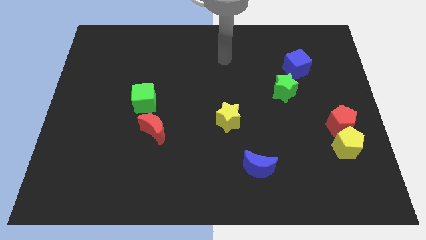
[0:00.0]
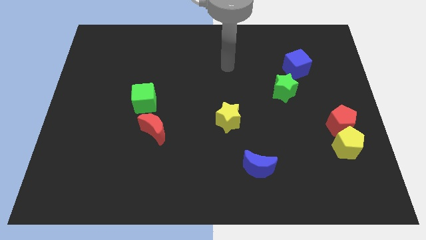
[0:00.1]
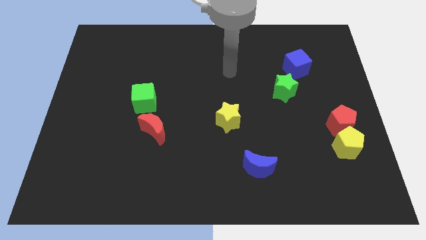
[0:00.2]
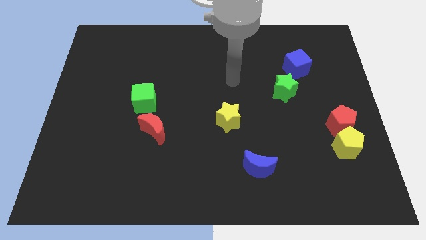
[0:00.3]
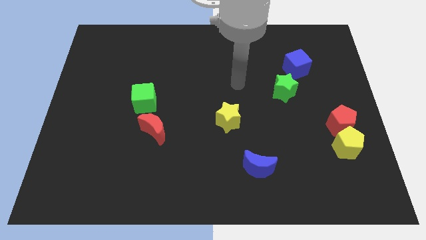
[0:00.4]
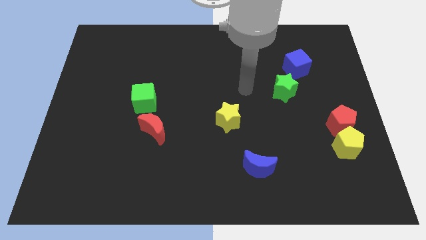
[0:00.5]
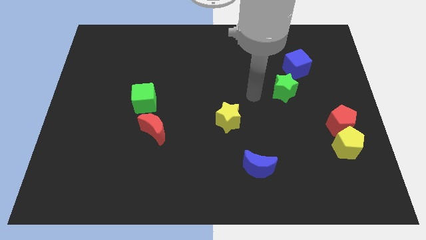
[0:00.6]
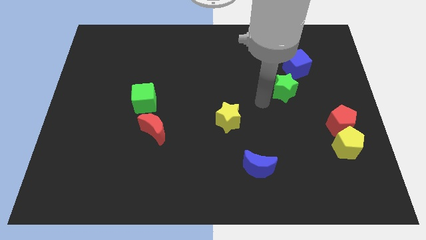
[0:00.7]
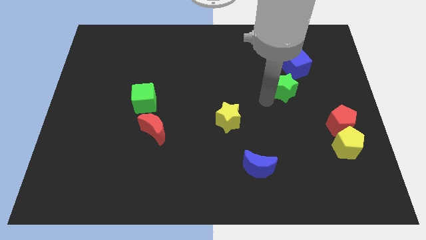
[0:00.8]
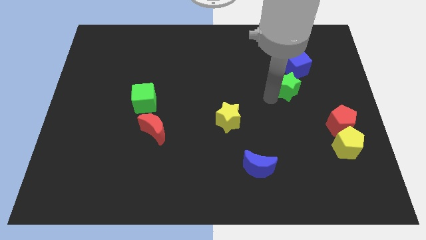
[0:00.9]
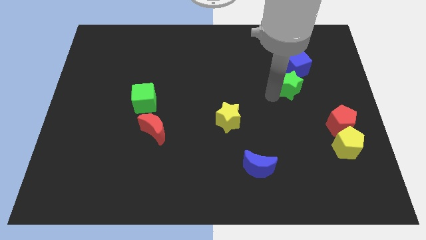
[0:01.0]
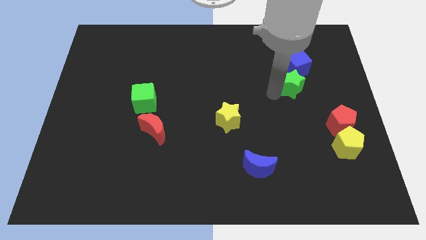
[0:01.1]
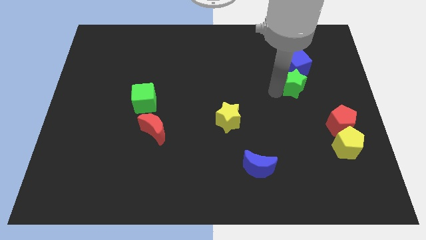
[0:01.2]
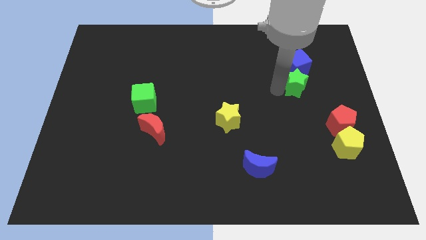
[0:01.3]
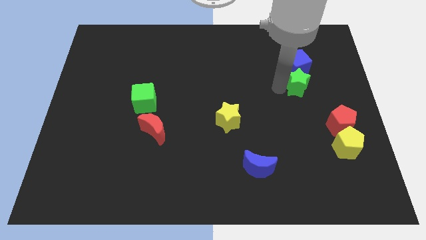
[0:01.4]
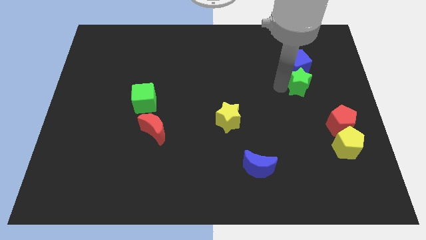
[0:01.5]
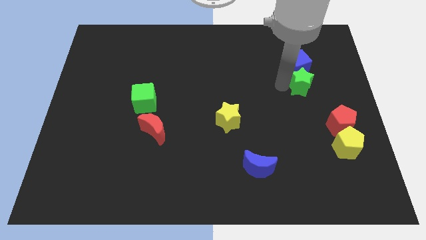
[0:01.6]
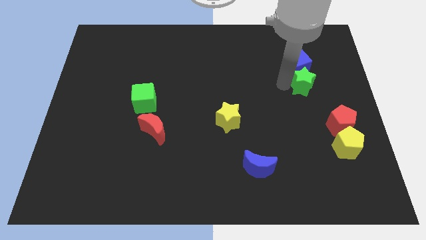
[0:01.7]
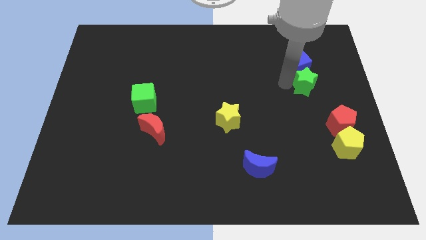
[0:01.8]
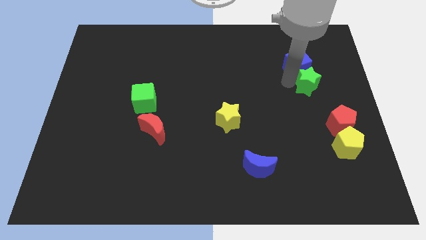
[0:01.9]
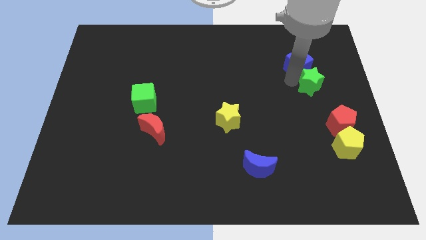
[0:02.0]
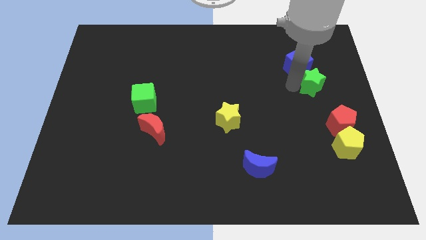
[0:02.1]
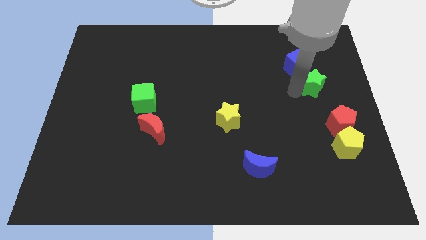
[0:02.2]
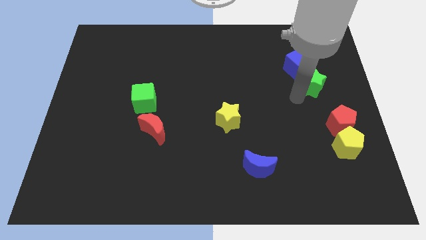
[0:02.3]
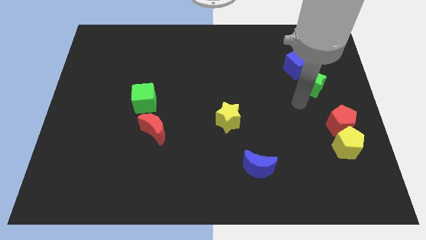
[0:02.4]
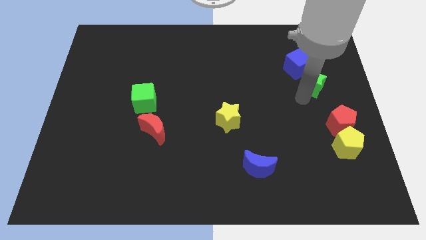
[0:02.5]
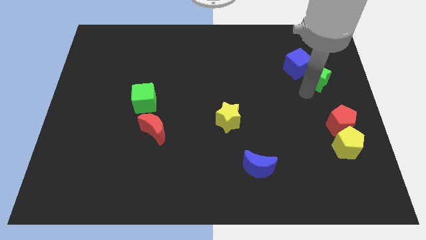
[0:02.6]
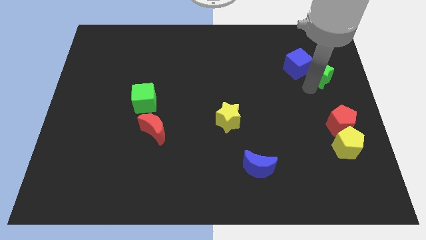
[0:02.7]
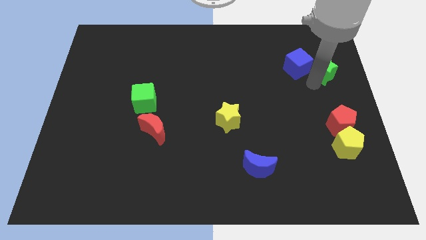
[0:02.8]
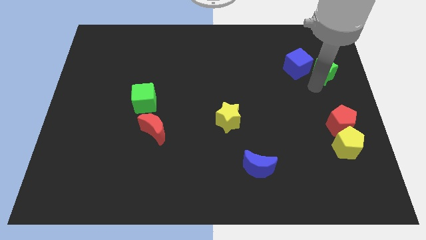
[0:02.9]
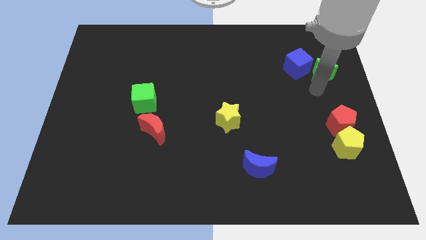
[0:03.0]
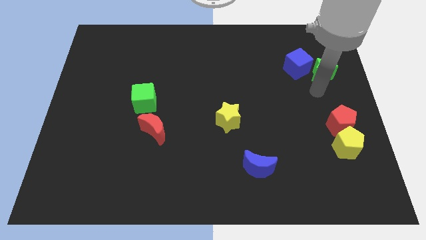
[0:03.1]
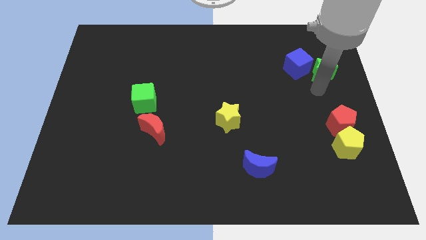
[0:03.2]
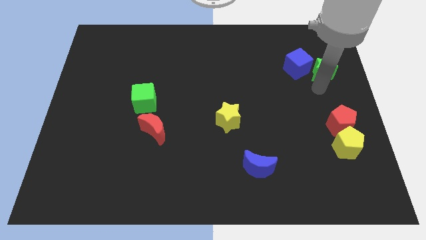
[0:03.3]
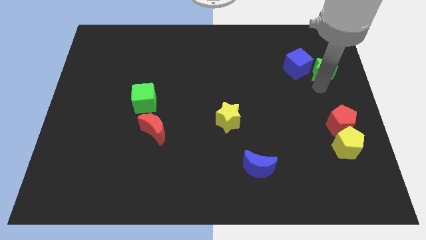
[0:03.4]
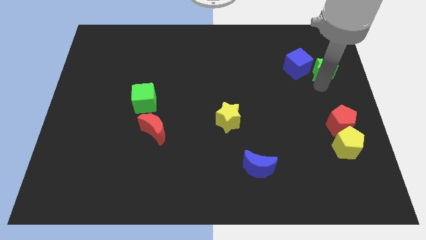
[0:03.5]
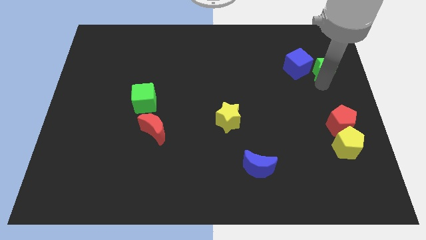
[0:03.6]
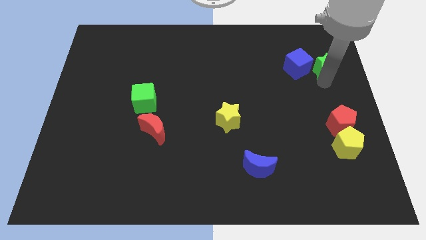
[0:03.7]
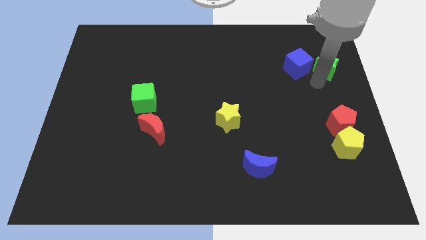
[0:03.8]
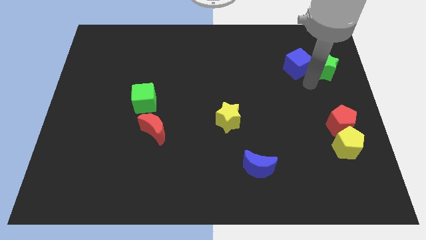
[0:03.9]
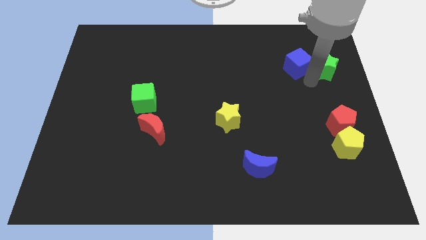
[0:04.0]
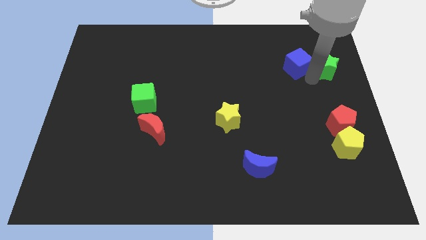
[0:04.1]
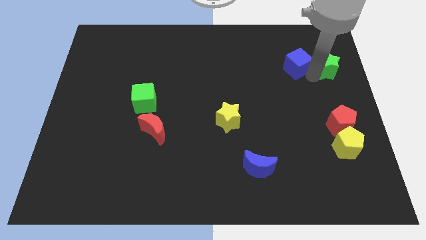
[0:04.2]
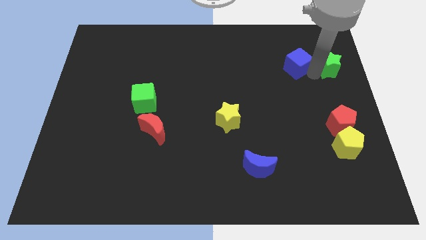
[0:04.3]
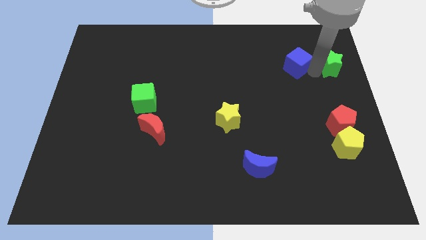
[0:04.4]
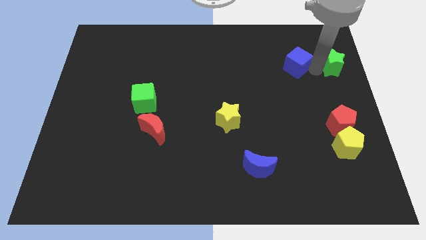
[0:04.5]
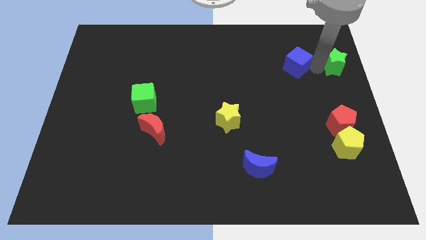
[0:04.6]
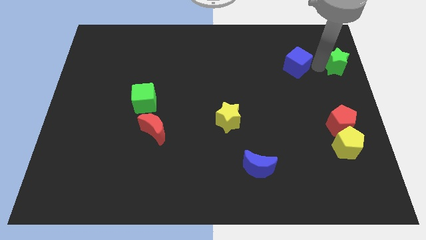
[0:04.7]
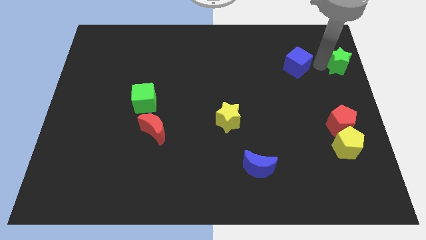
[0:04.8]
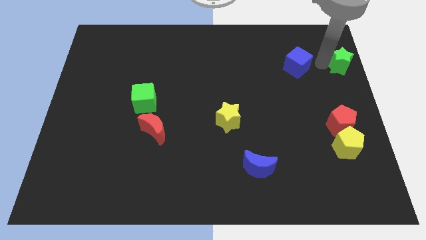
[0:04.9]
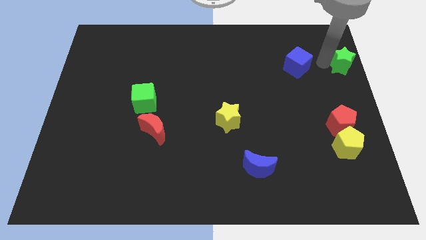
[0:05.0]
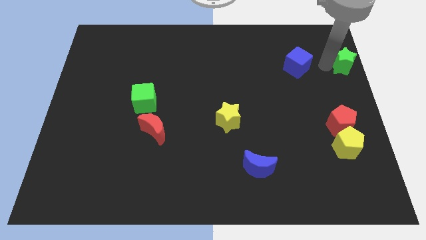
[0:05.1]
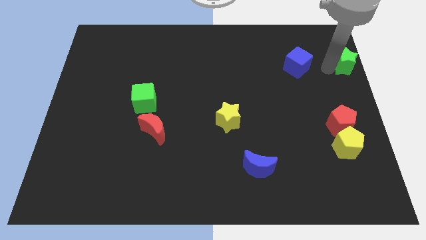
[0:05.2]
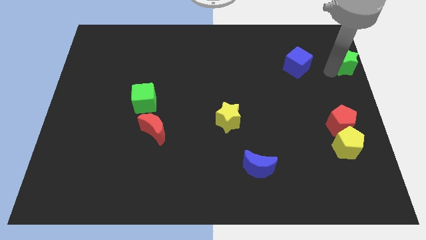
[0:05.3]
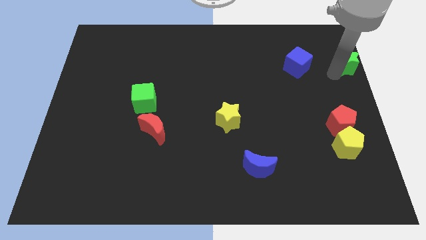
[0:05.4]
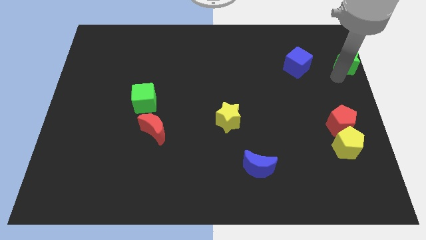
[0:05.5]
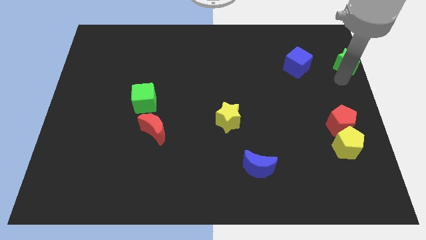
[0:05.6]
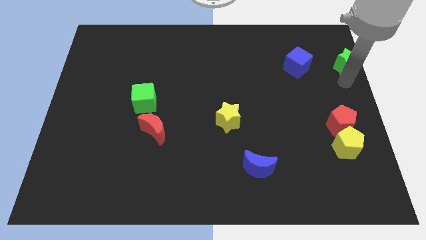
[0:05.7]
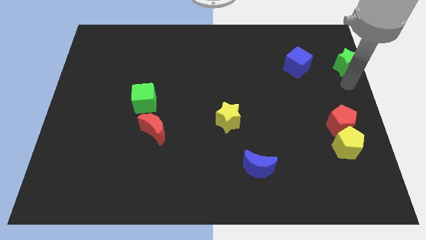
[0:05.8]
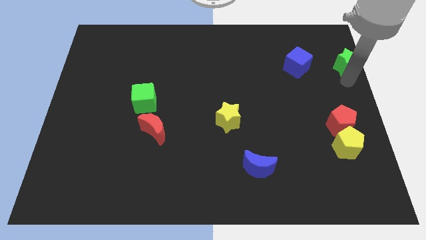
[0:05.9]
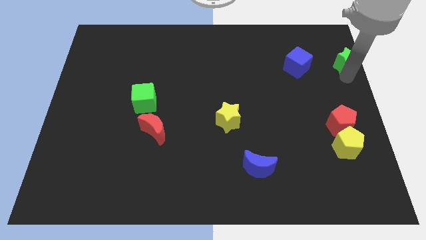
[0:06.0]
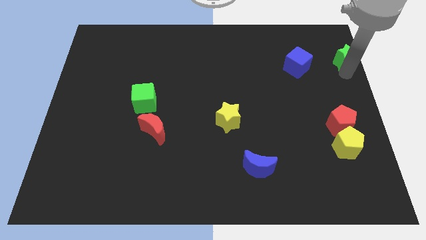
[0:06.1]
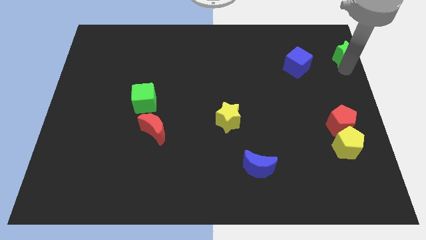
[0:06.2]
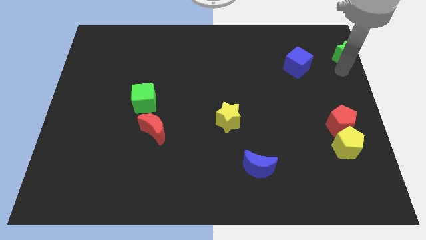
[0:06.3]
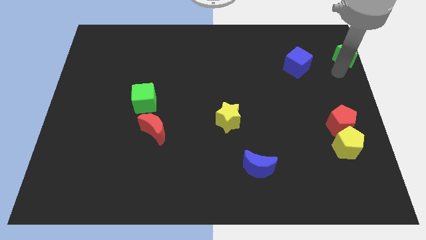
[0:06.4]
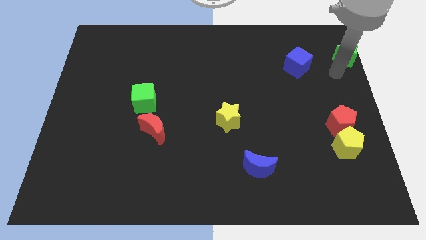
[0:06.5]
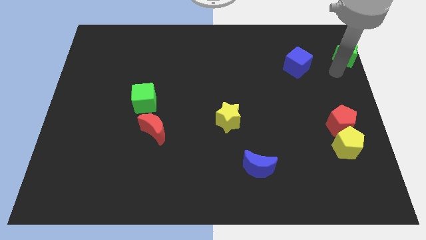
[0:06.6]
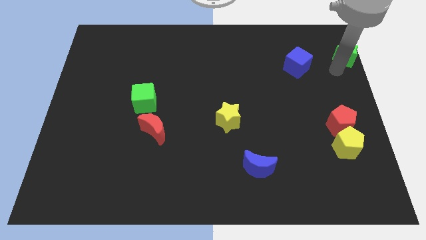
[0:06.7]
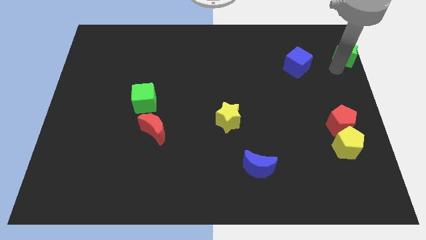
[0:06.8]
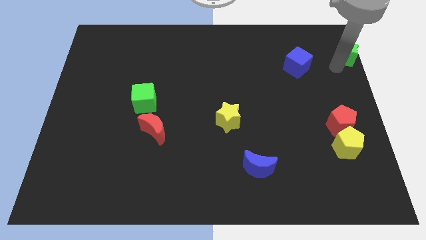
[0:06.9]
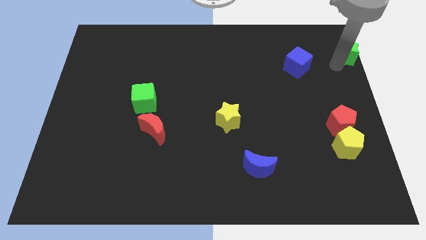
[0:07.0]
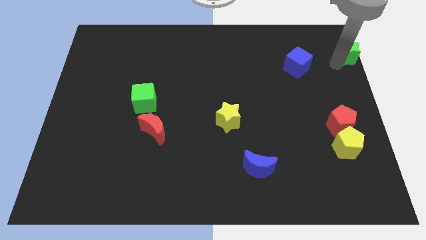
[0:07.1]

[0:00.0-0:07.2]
put the green star to the top right of the board
